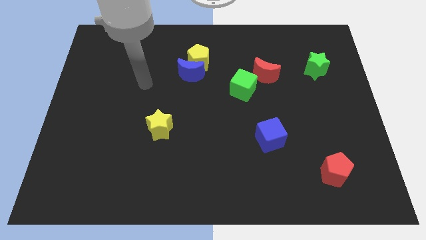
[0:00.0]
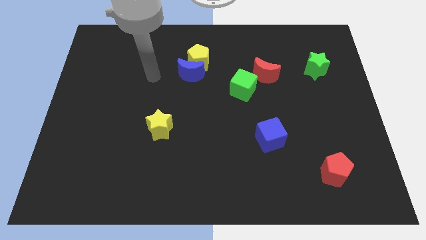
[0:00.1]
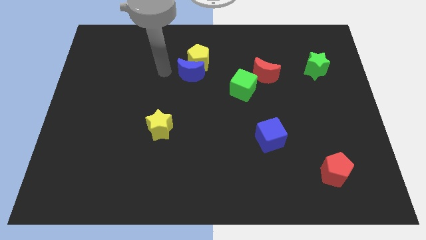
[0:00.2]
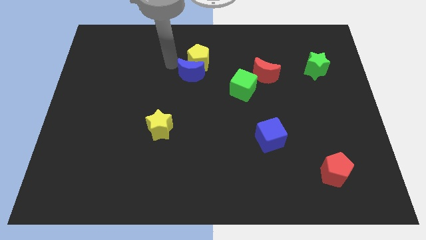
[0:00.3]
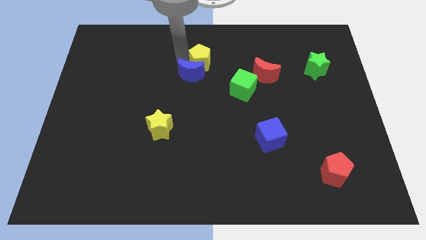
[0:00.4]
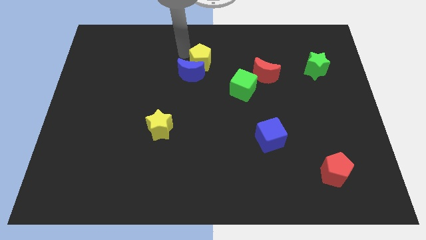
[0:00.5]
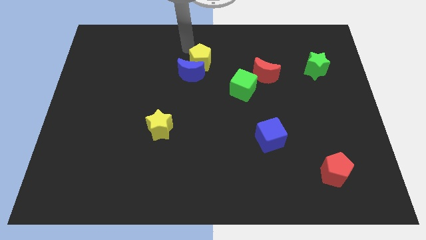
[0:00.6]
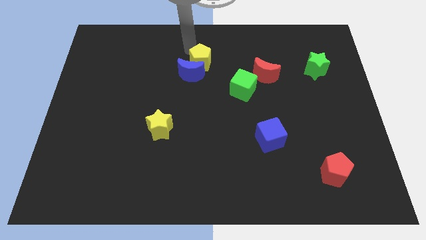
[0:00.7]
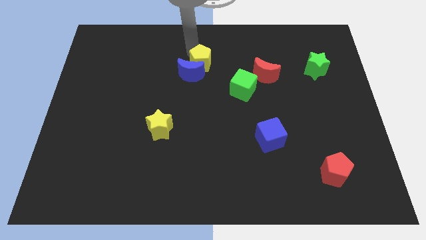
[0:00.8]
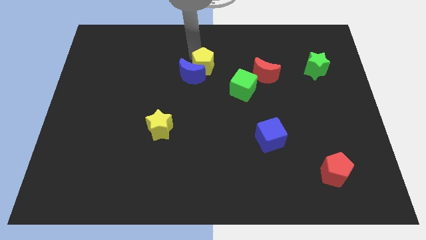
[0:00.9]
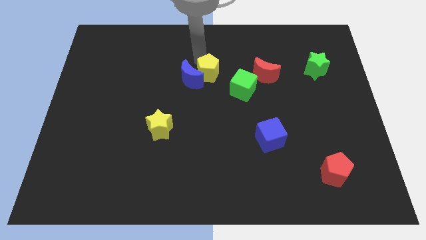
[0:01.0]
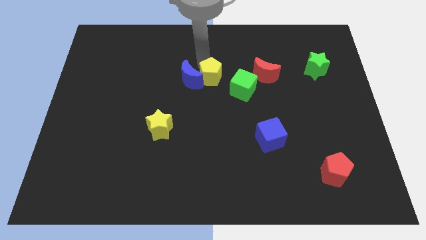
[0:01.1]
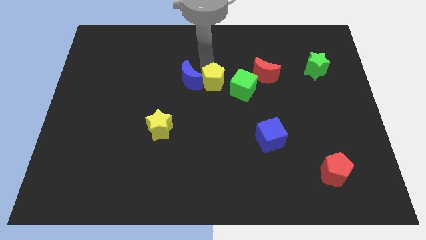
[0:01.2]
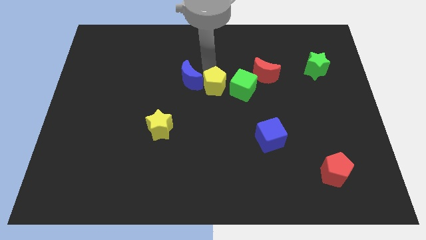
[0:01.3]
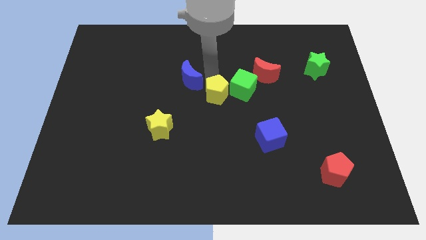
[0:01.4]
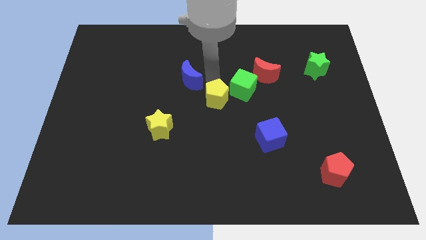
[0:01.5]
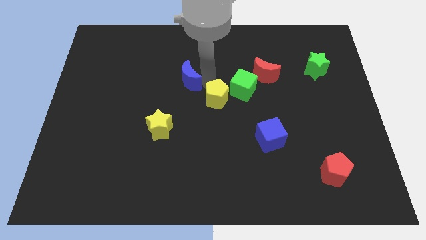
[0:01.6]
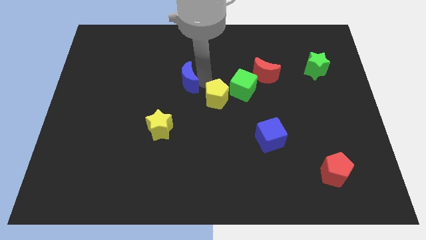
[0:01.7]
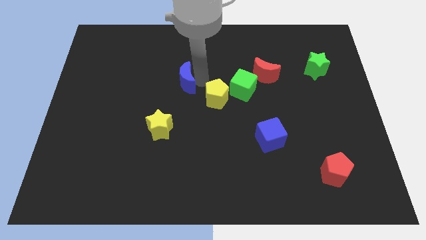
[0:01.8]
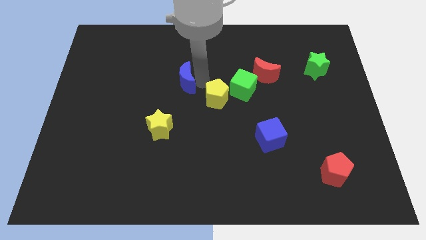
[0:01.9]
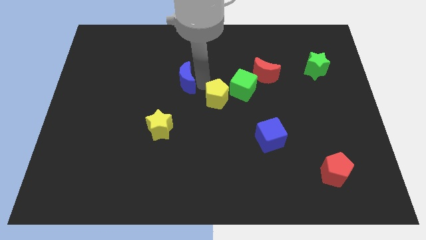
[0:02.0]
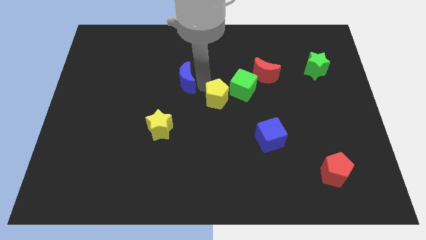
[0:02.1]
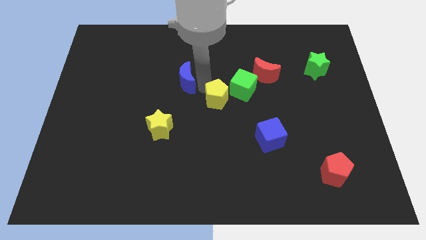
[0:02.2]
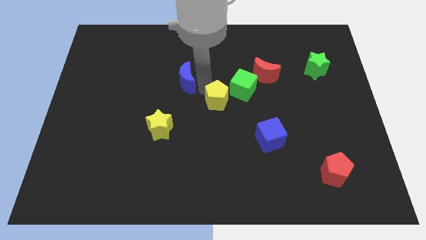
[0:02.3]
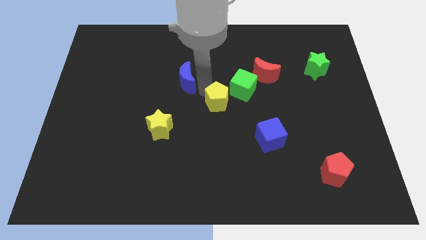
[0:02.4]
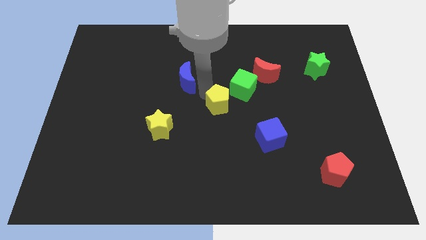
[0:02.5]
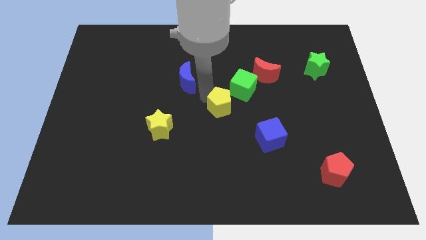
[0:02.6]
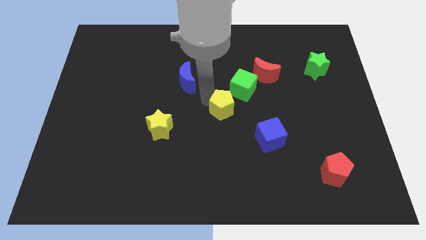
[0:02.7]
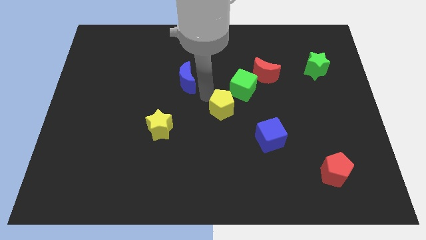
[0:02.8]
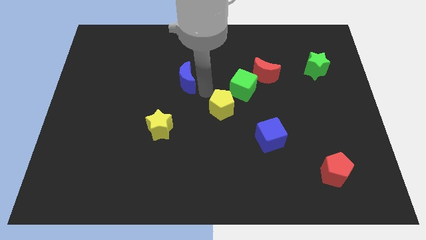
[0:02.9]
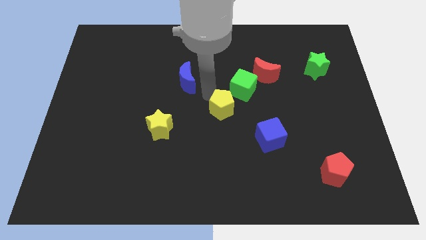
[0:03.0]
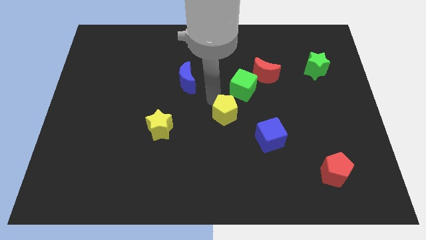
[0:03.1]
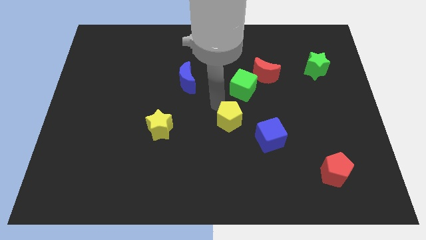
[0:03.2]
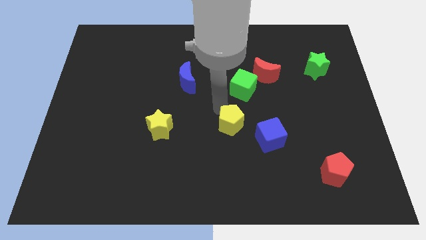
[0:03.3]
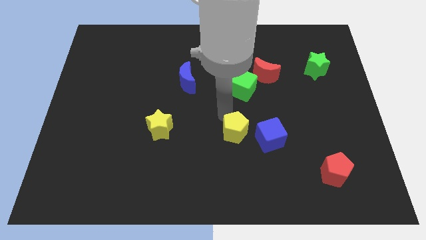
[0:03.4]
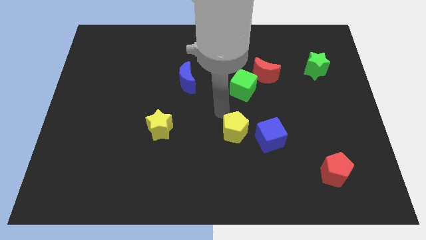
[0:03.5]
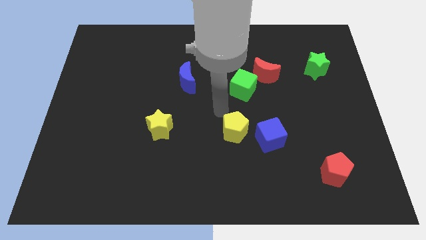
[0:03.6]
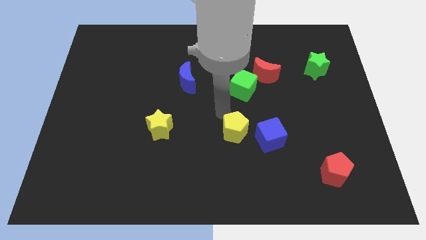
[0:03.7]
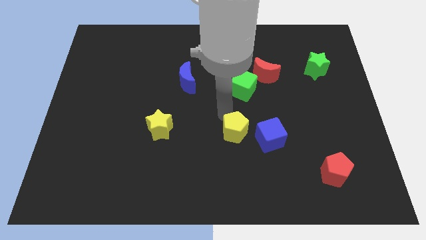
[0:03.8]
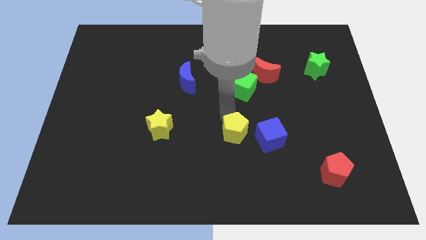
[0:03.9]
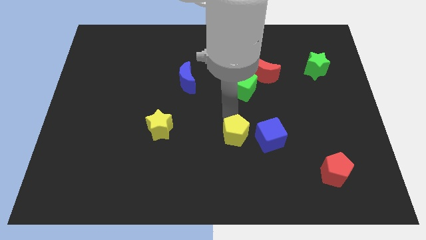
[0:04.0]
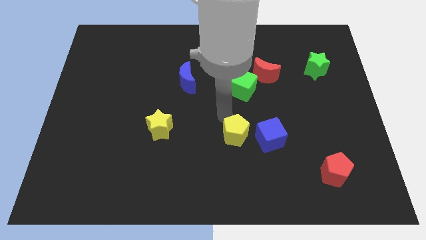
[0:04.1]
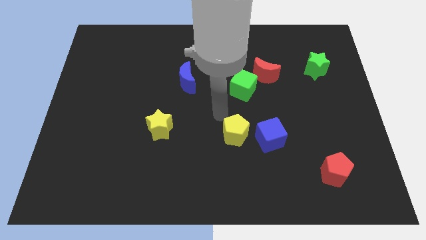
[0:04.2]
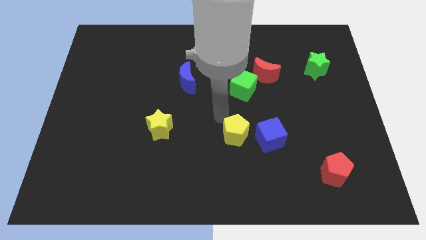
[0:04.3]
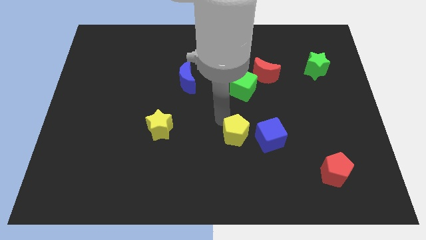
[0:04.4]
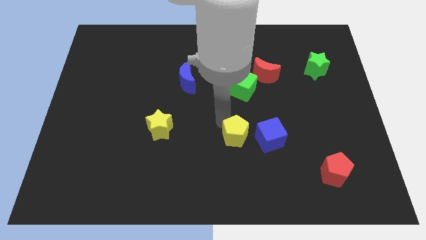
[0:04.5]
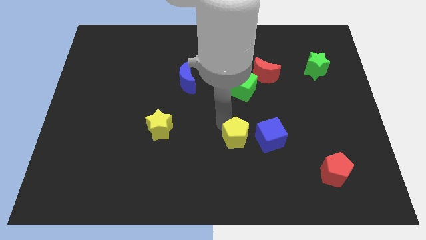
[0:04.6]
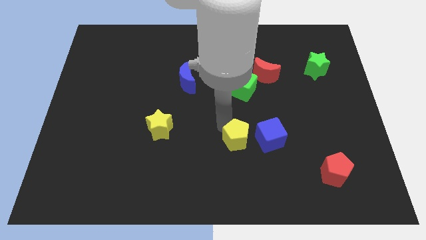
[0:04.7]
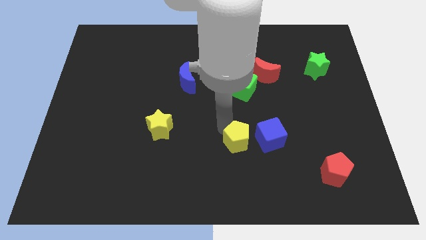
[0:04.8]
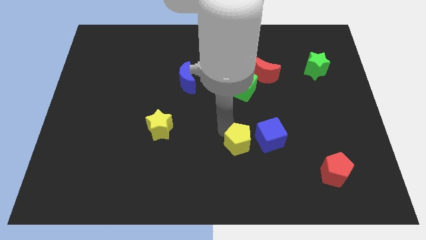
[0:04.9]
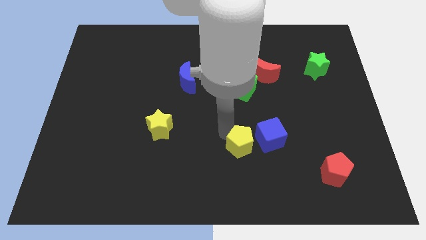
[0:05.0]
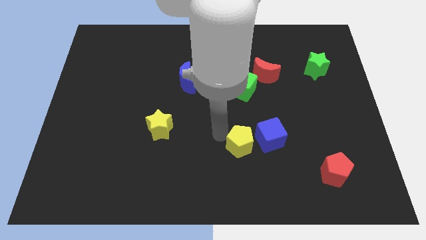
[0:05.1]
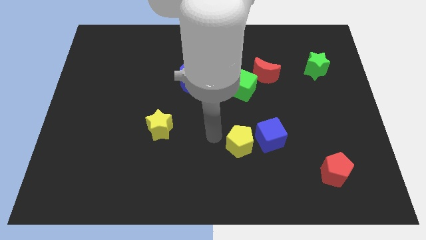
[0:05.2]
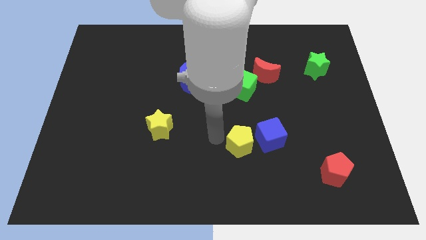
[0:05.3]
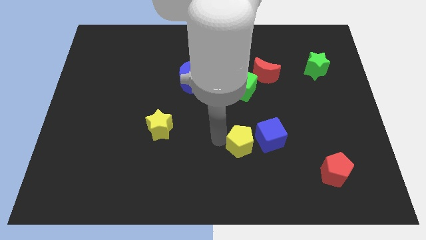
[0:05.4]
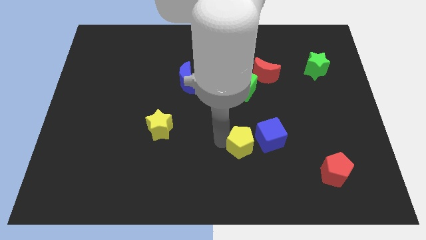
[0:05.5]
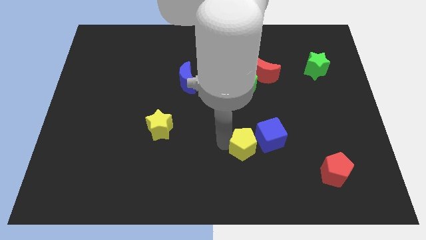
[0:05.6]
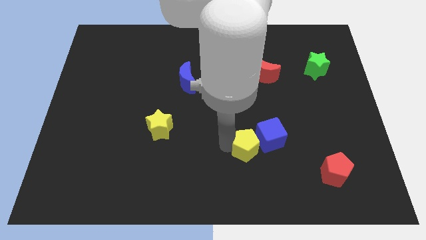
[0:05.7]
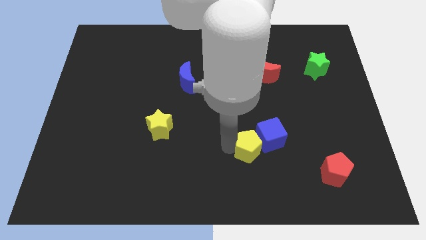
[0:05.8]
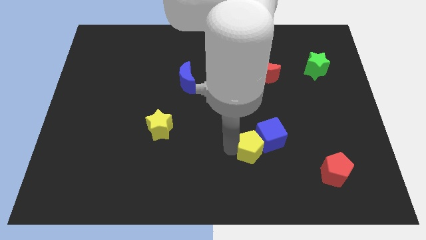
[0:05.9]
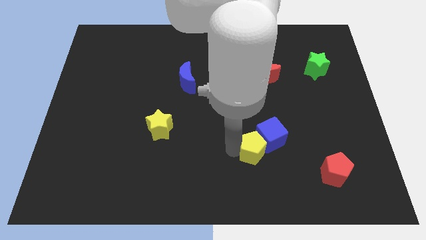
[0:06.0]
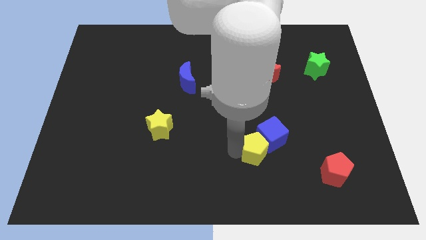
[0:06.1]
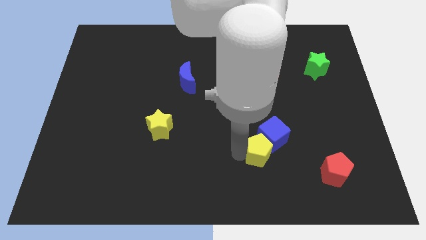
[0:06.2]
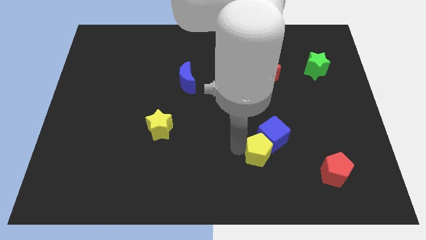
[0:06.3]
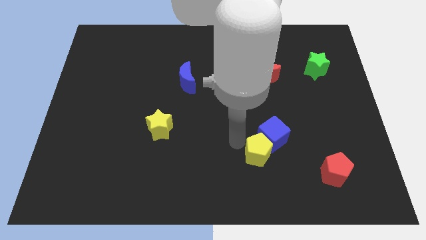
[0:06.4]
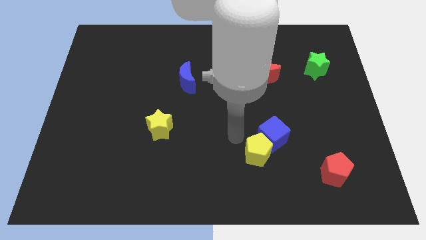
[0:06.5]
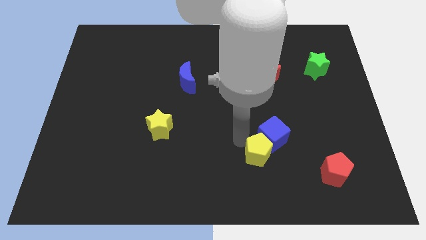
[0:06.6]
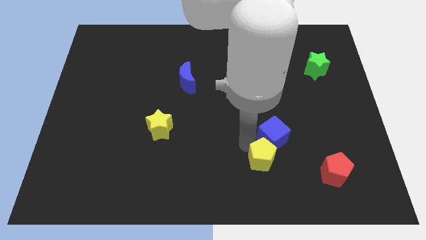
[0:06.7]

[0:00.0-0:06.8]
slide the yellow pentagon to the left of the red pentagon

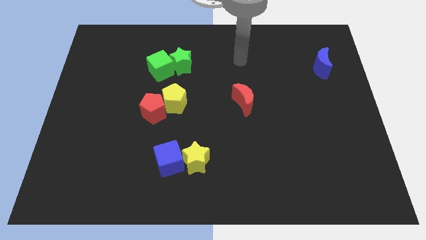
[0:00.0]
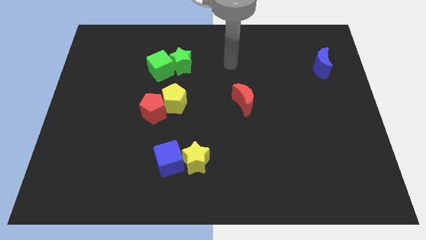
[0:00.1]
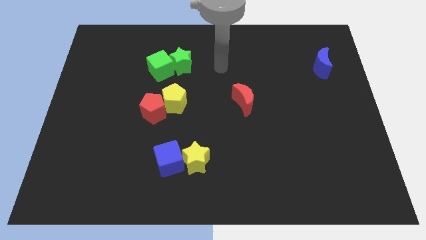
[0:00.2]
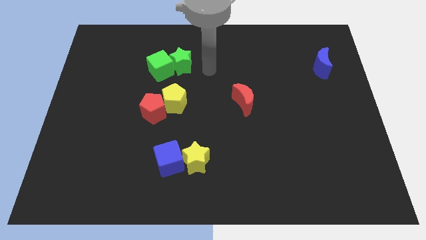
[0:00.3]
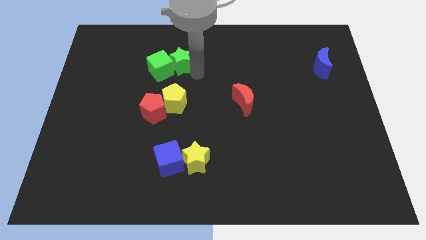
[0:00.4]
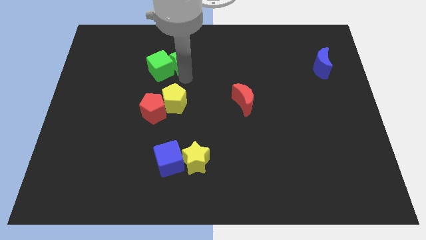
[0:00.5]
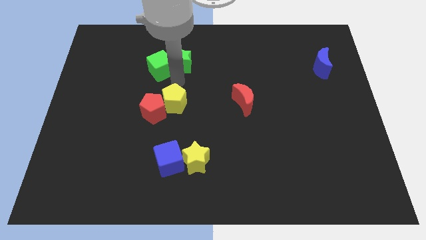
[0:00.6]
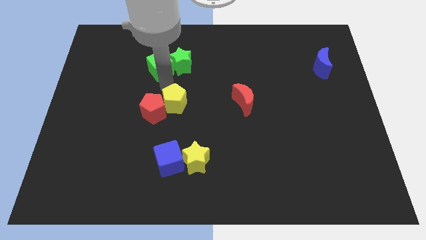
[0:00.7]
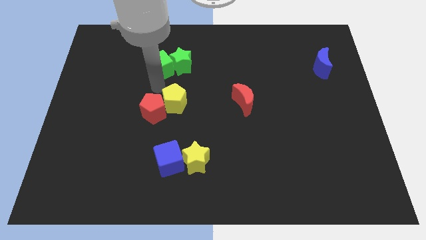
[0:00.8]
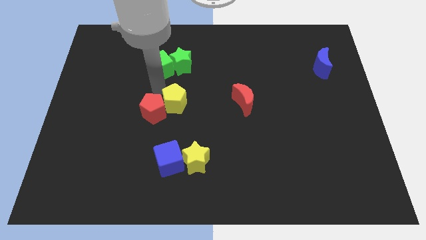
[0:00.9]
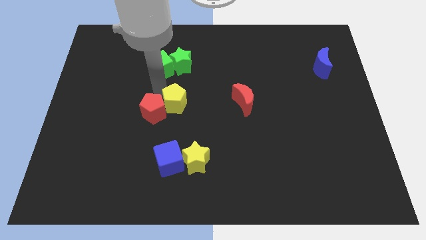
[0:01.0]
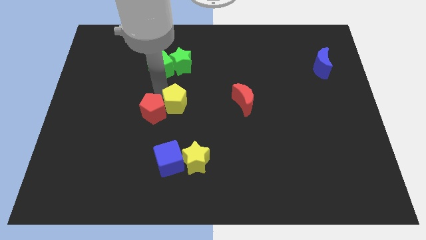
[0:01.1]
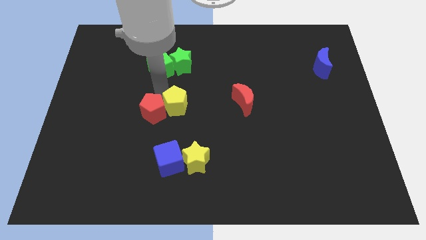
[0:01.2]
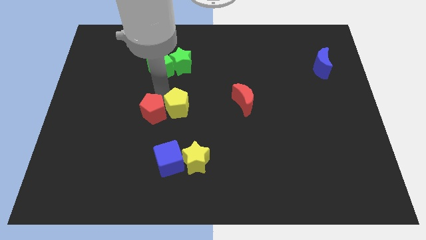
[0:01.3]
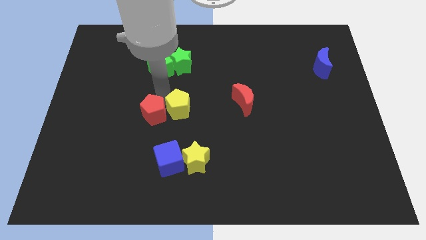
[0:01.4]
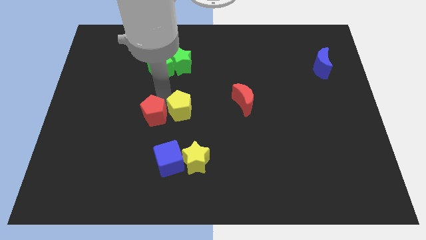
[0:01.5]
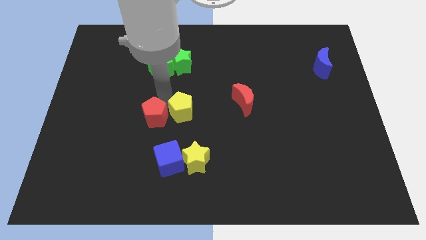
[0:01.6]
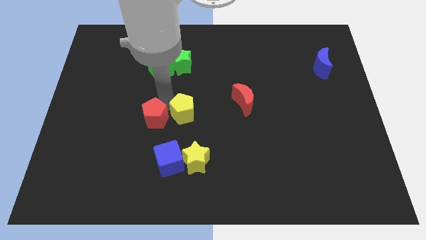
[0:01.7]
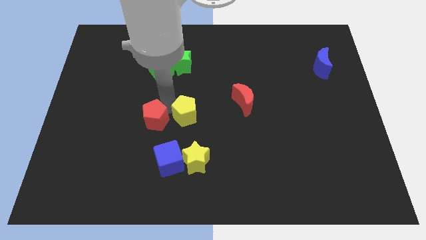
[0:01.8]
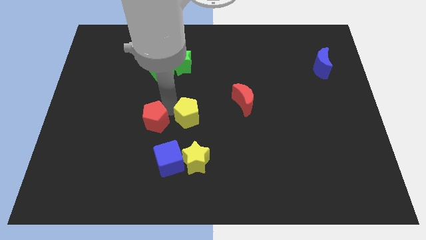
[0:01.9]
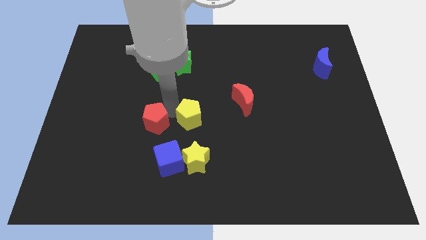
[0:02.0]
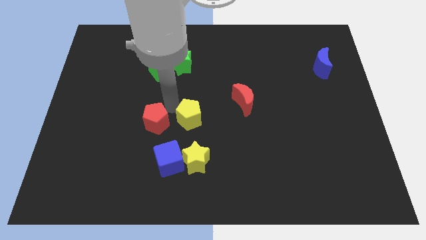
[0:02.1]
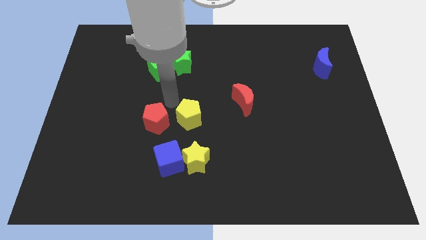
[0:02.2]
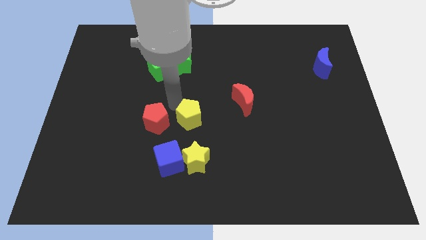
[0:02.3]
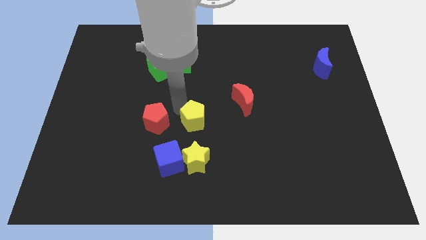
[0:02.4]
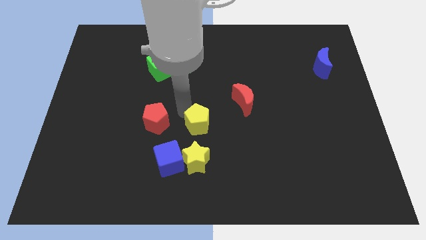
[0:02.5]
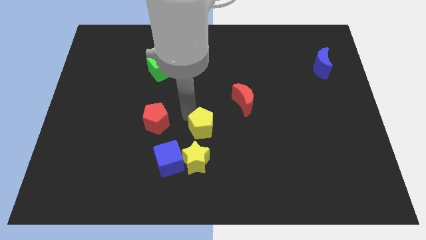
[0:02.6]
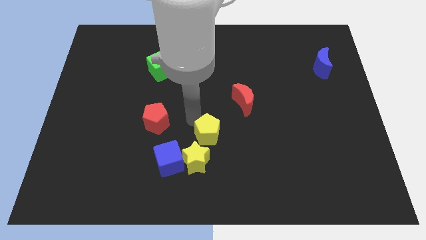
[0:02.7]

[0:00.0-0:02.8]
slide the yellow pentagon to the top right of the yellow star
